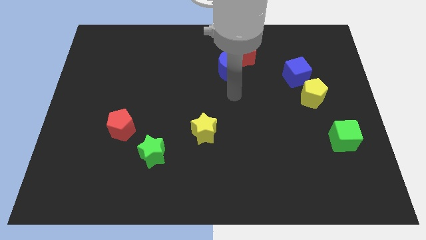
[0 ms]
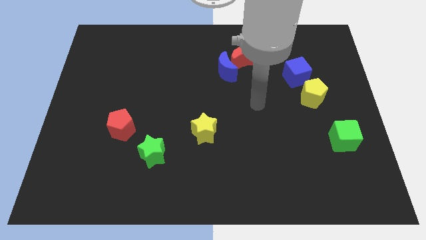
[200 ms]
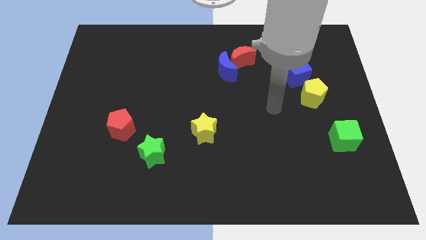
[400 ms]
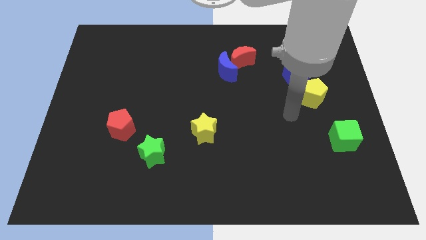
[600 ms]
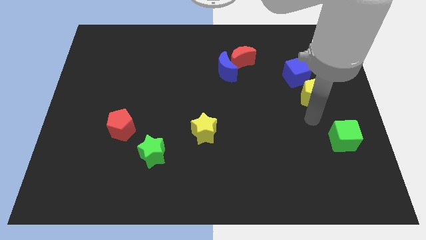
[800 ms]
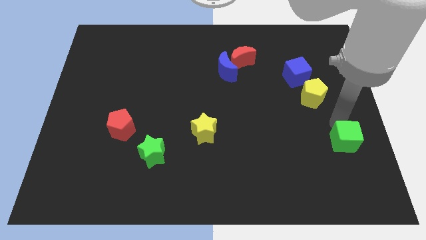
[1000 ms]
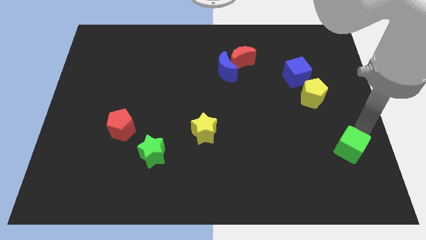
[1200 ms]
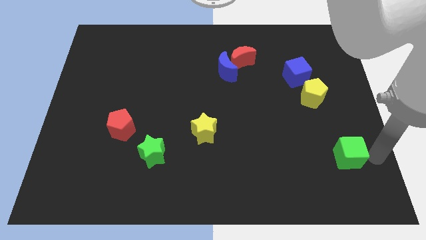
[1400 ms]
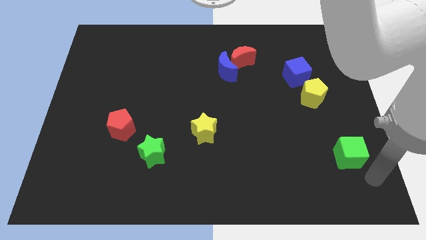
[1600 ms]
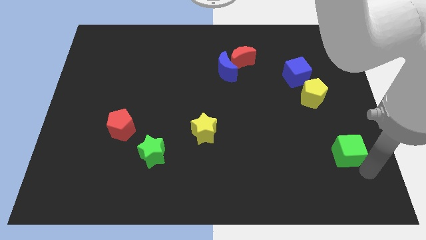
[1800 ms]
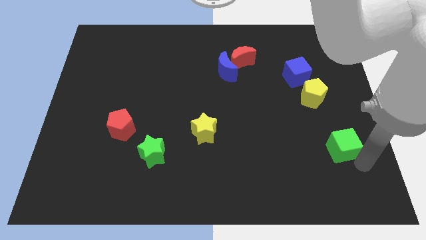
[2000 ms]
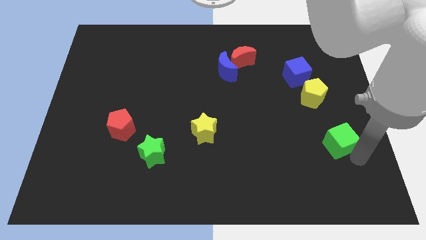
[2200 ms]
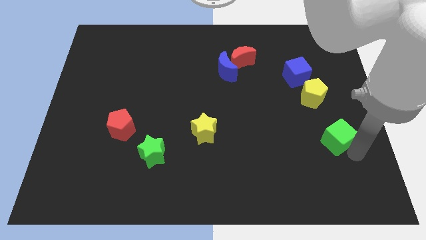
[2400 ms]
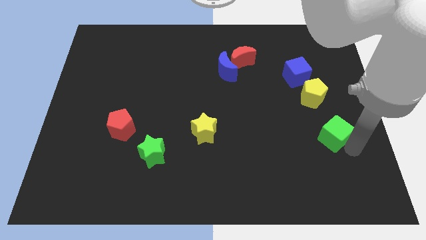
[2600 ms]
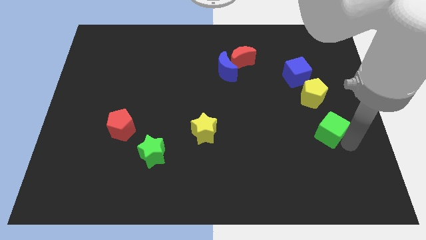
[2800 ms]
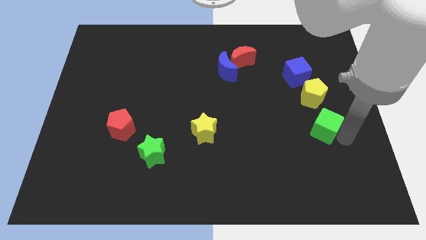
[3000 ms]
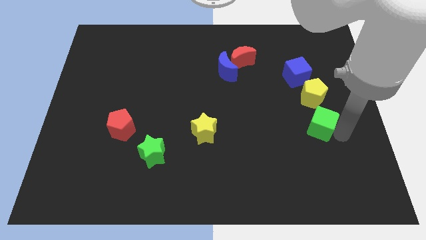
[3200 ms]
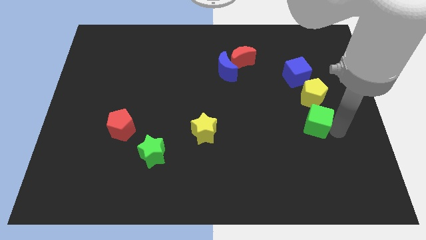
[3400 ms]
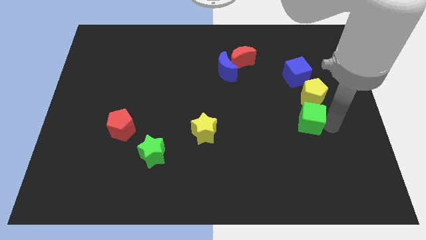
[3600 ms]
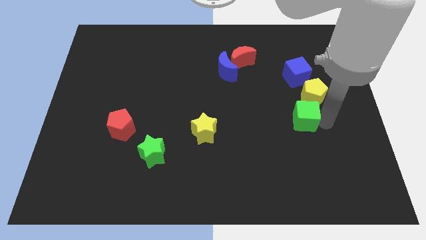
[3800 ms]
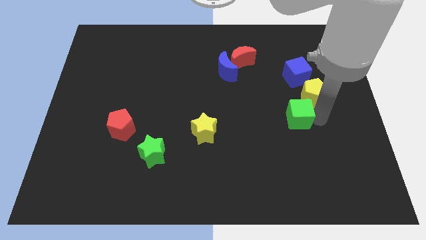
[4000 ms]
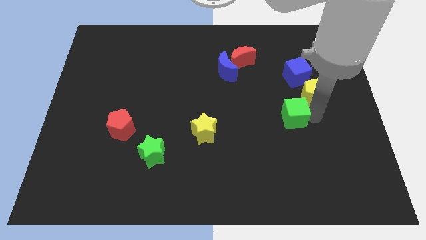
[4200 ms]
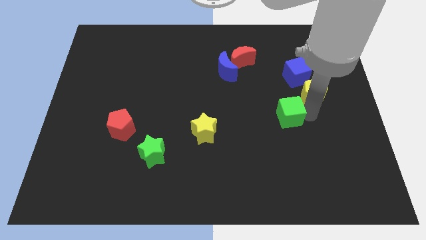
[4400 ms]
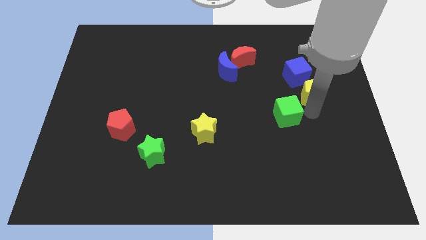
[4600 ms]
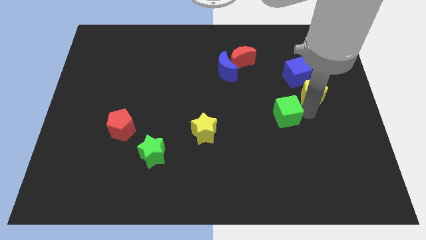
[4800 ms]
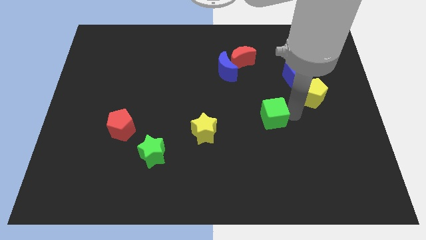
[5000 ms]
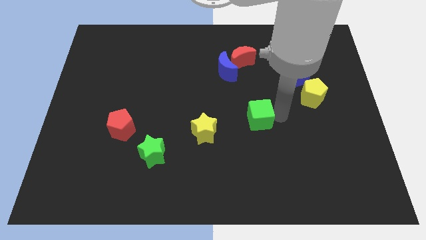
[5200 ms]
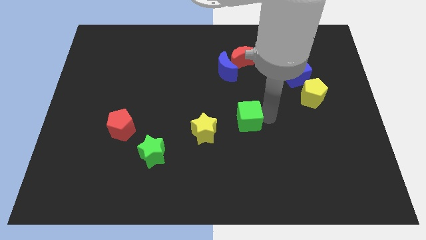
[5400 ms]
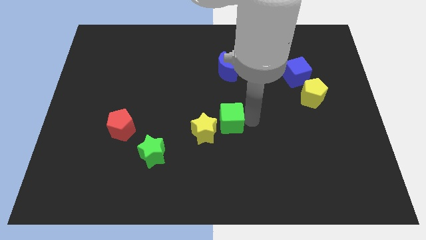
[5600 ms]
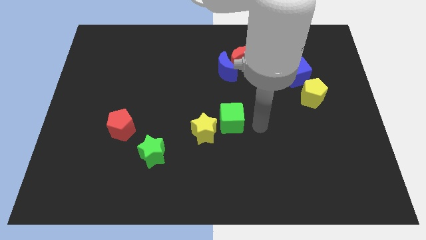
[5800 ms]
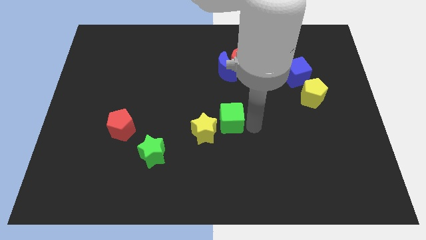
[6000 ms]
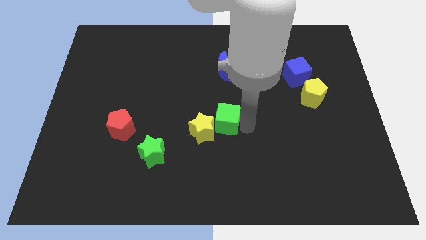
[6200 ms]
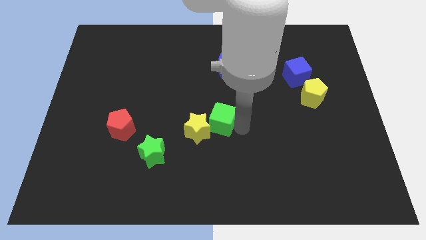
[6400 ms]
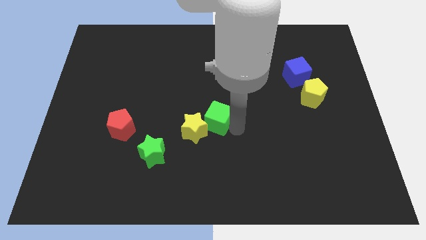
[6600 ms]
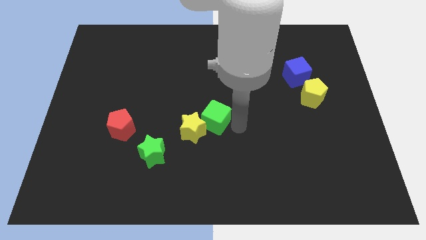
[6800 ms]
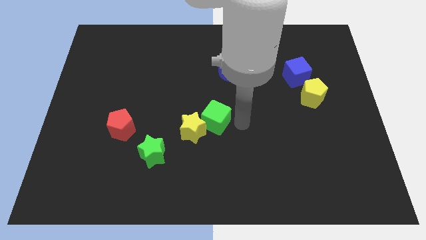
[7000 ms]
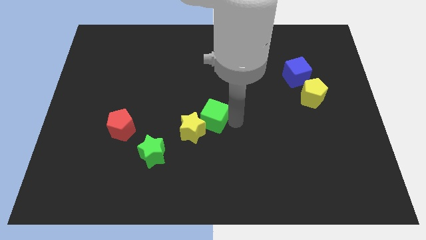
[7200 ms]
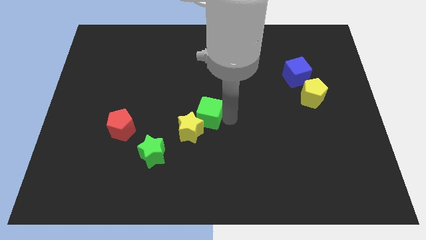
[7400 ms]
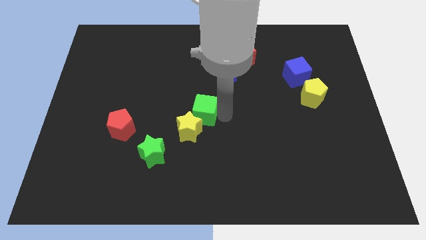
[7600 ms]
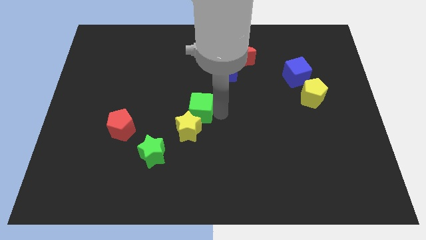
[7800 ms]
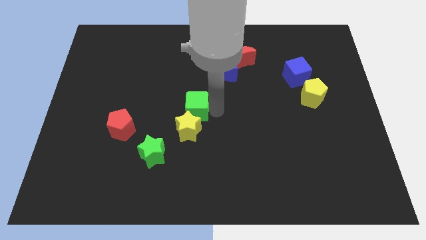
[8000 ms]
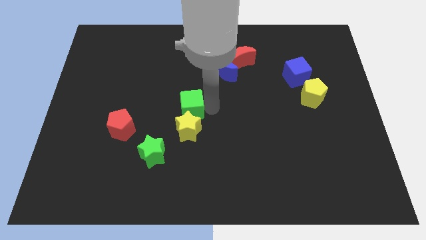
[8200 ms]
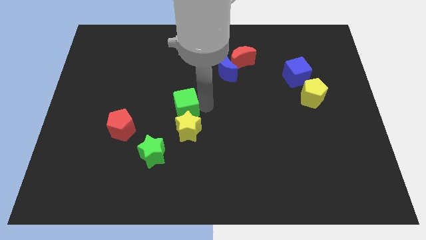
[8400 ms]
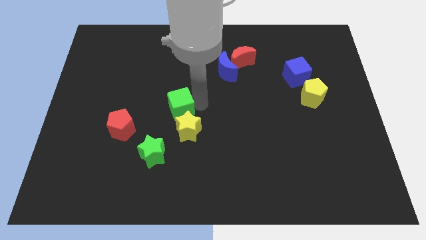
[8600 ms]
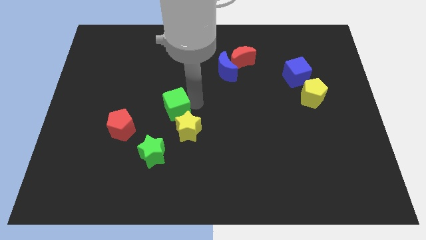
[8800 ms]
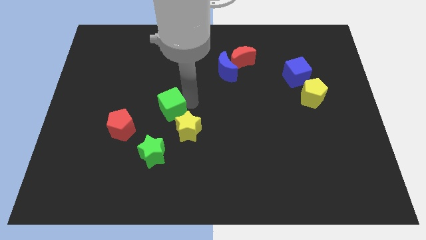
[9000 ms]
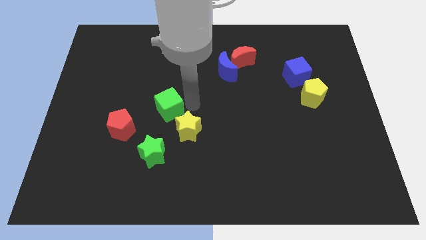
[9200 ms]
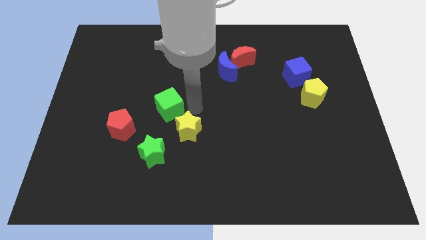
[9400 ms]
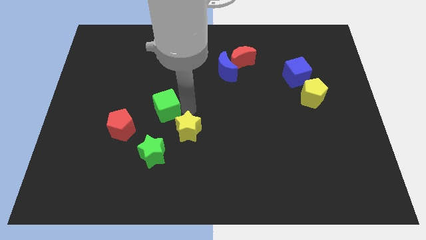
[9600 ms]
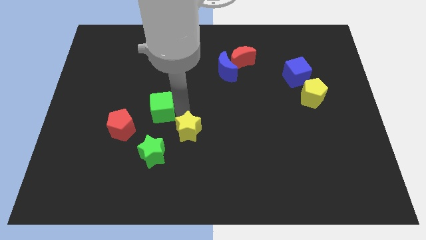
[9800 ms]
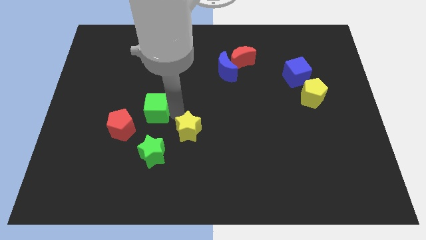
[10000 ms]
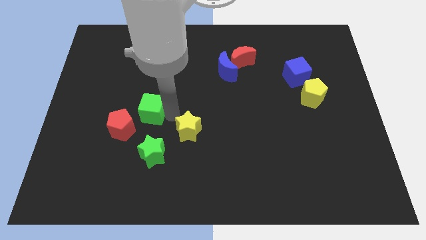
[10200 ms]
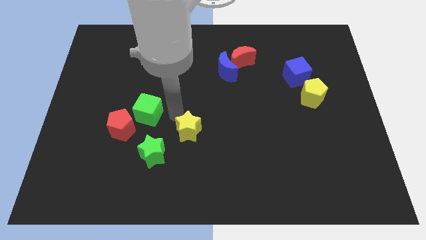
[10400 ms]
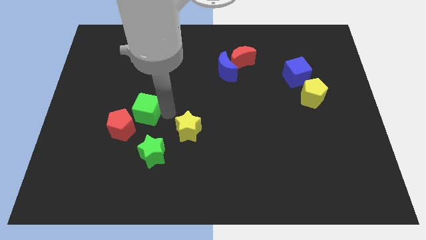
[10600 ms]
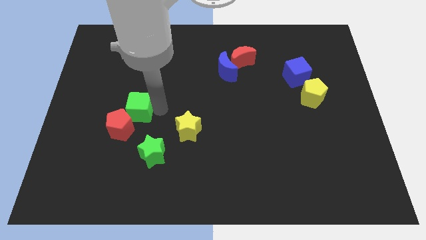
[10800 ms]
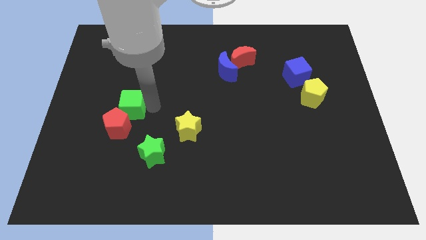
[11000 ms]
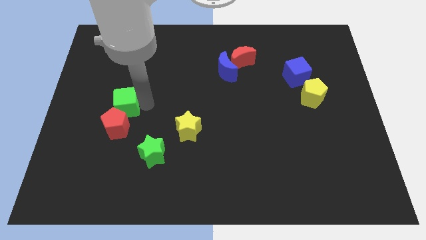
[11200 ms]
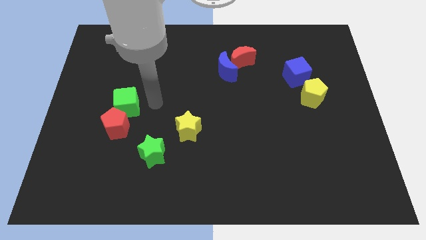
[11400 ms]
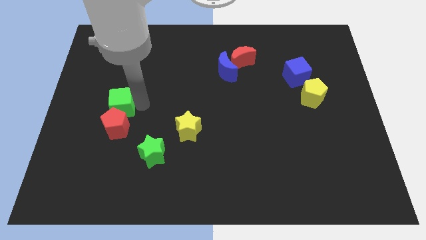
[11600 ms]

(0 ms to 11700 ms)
put the green cube diagonally up and to the left of the red pentagon

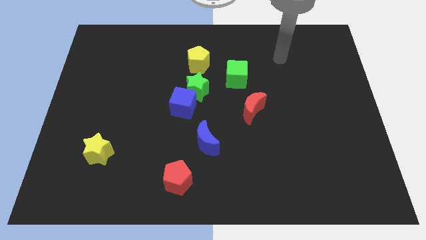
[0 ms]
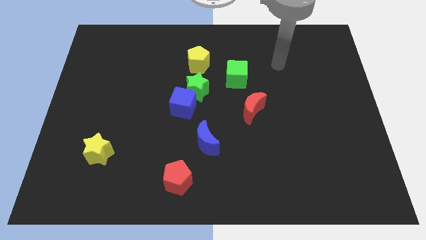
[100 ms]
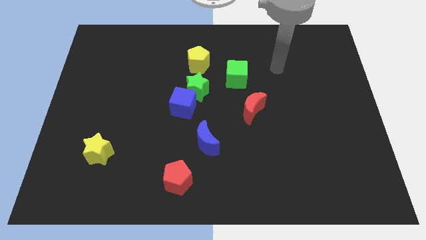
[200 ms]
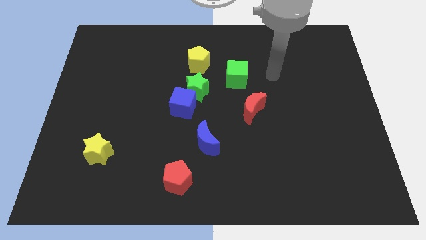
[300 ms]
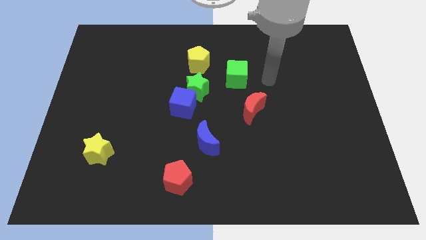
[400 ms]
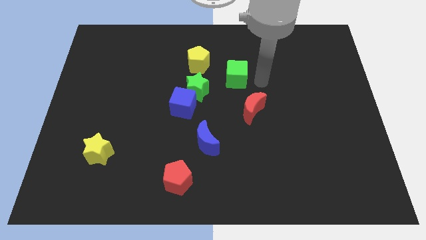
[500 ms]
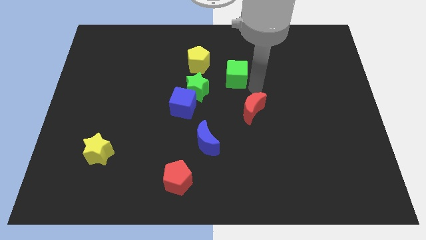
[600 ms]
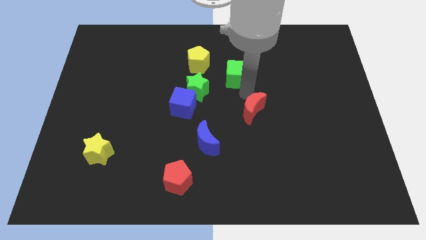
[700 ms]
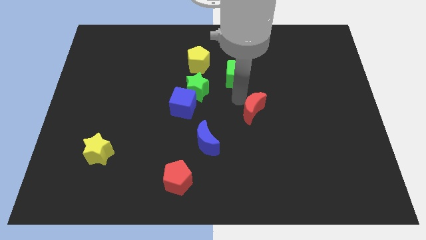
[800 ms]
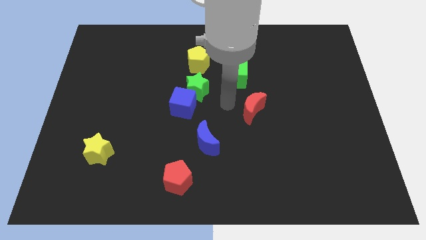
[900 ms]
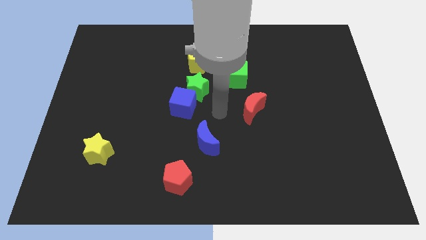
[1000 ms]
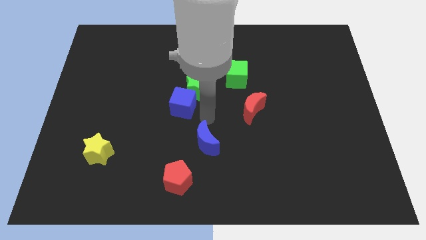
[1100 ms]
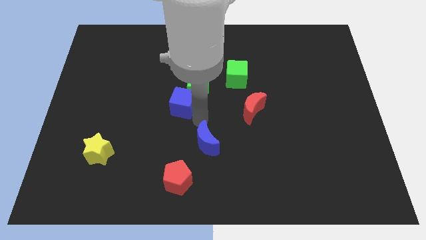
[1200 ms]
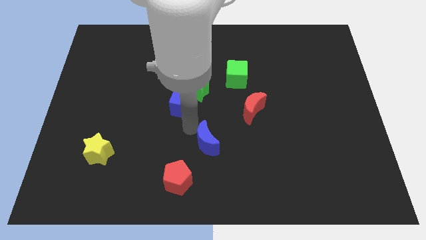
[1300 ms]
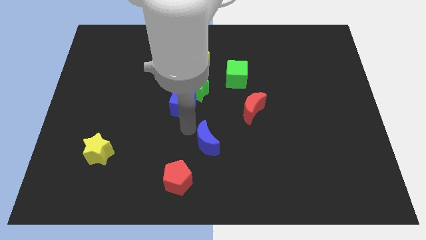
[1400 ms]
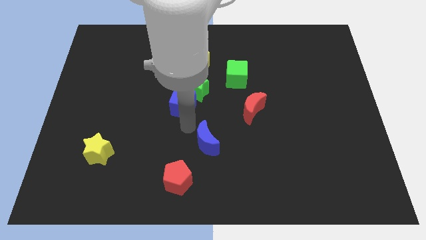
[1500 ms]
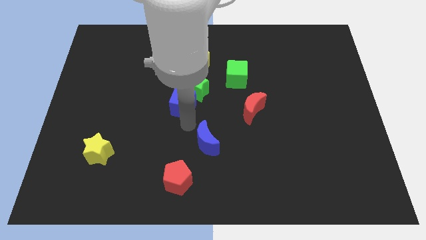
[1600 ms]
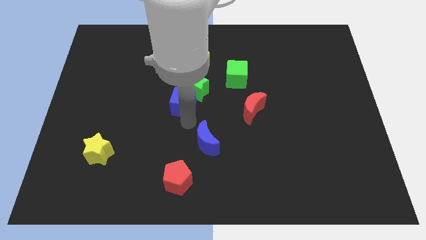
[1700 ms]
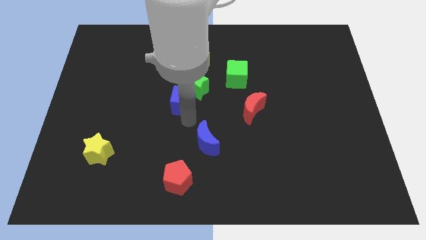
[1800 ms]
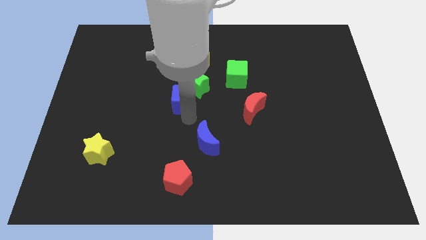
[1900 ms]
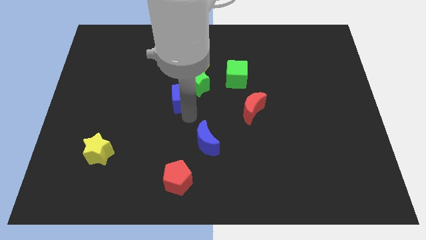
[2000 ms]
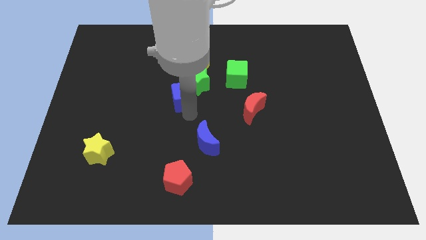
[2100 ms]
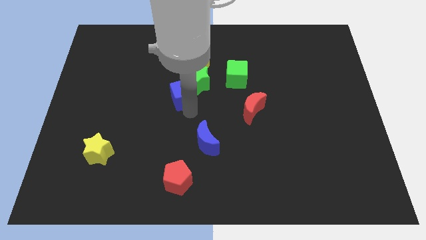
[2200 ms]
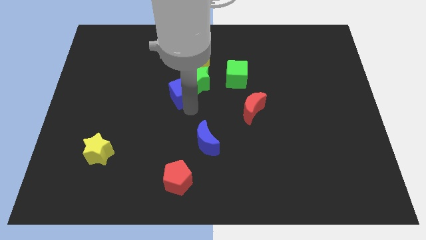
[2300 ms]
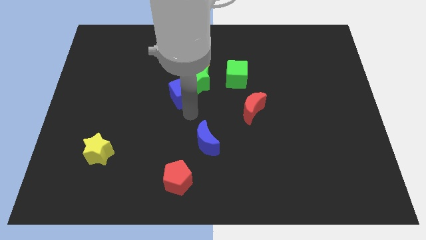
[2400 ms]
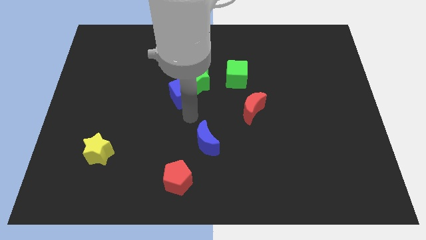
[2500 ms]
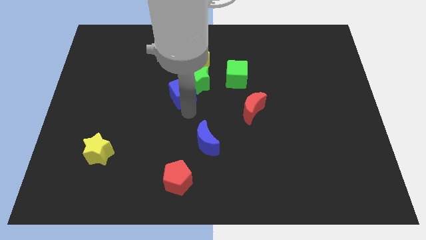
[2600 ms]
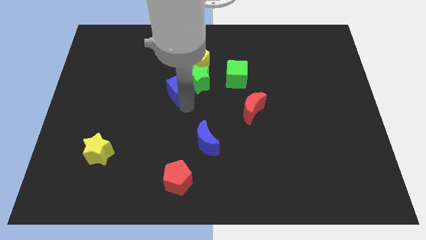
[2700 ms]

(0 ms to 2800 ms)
slide the blue cube to the bottom left side of the yellow pentagon
